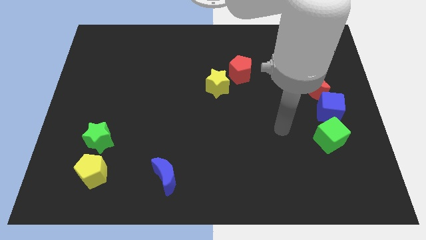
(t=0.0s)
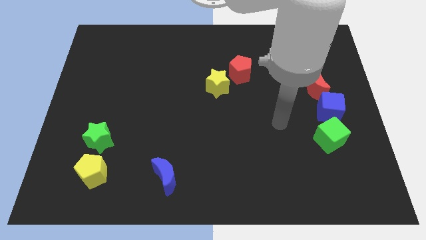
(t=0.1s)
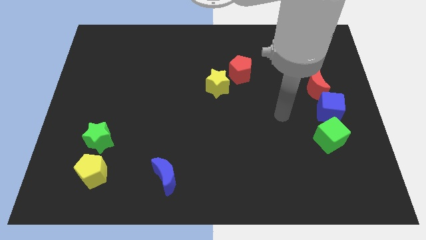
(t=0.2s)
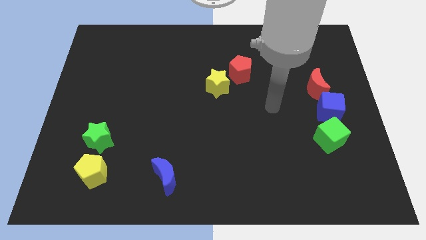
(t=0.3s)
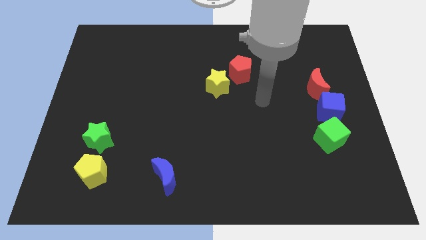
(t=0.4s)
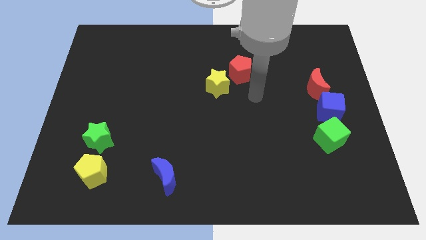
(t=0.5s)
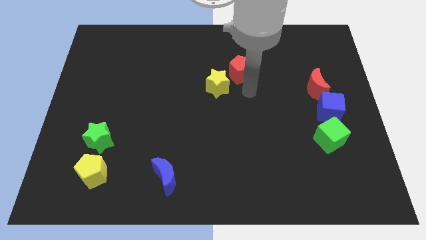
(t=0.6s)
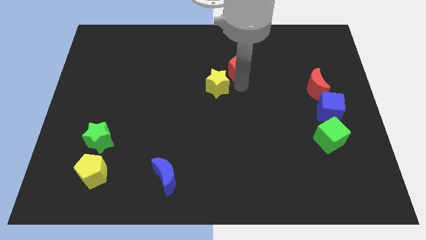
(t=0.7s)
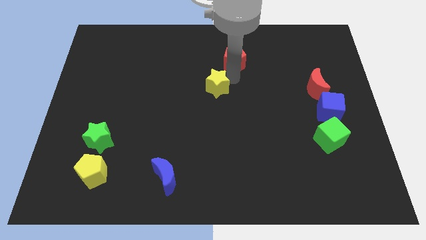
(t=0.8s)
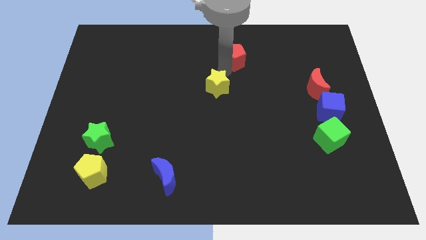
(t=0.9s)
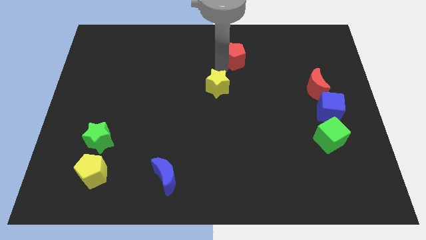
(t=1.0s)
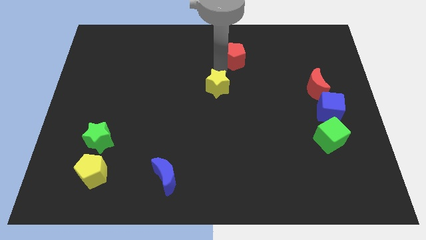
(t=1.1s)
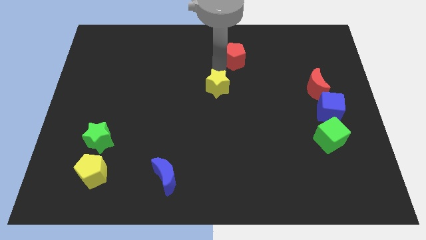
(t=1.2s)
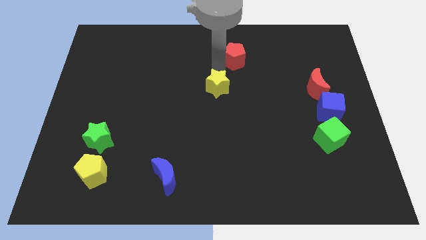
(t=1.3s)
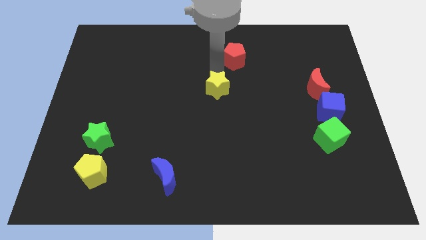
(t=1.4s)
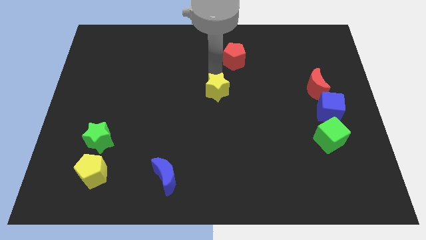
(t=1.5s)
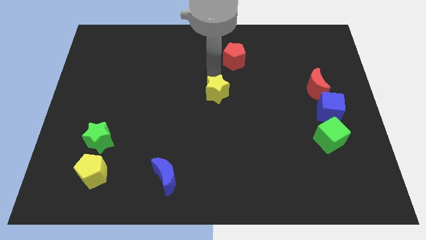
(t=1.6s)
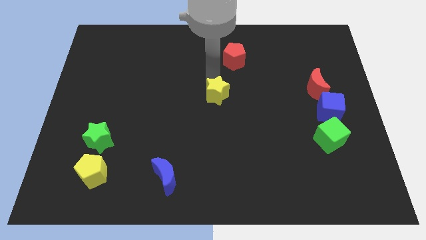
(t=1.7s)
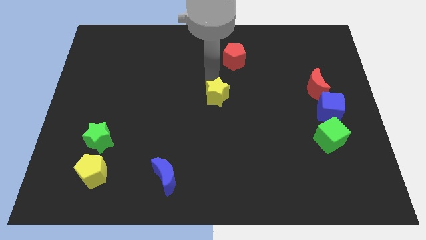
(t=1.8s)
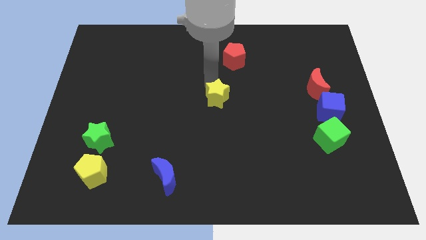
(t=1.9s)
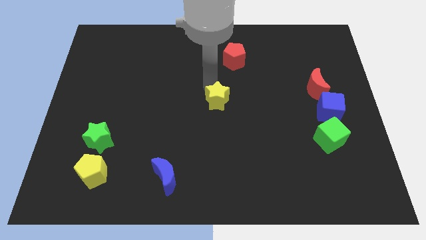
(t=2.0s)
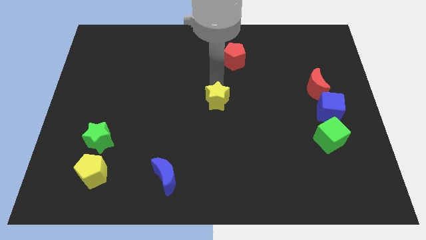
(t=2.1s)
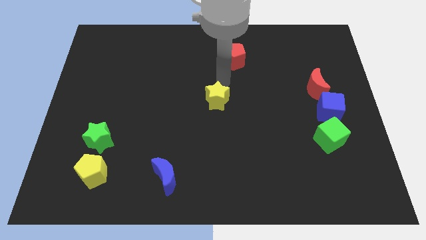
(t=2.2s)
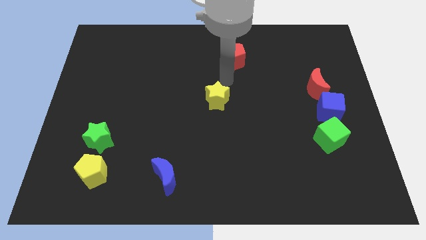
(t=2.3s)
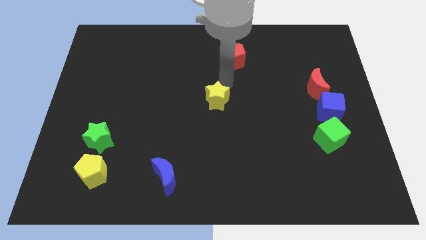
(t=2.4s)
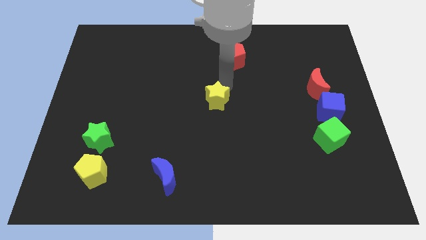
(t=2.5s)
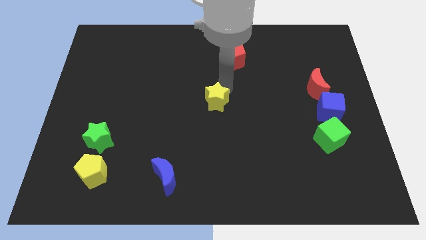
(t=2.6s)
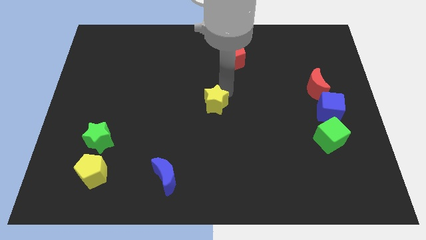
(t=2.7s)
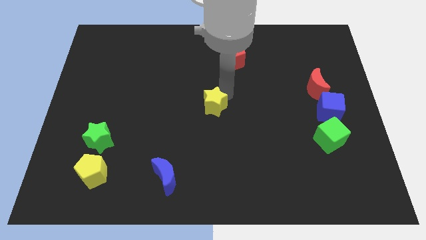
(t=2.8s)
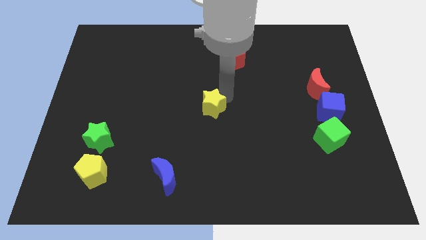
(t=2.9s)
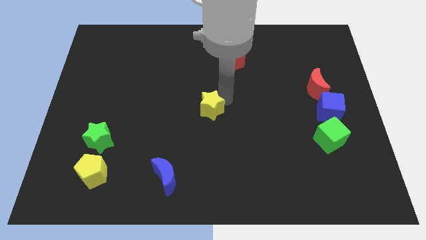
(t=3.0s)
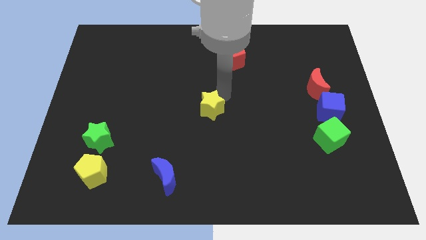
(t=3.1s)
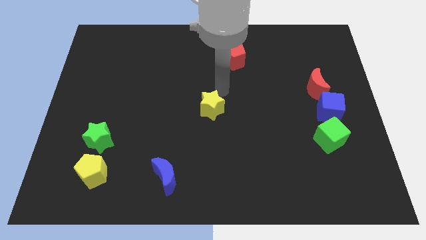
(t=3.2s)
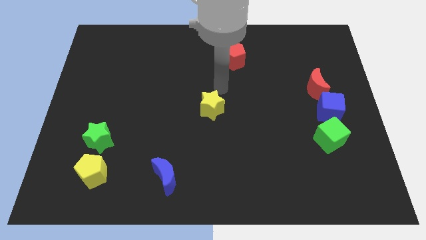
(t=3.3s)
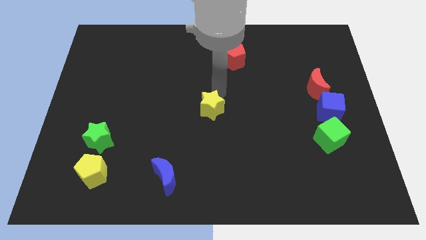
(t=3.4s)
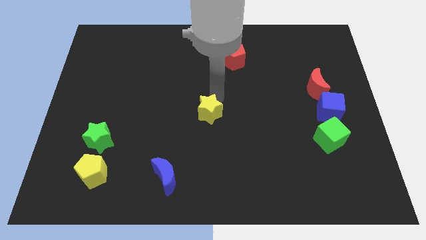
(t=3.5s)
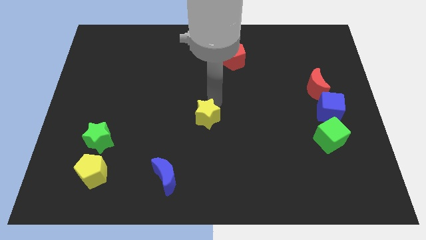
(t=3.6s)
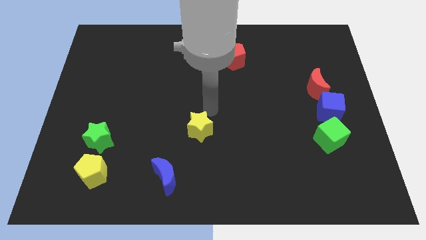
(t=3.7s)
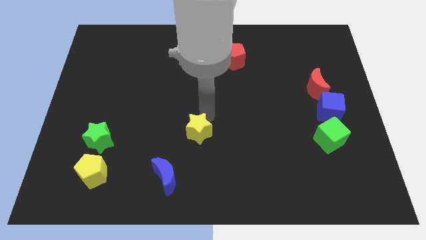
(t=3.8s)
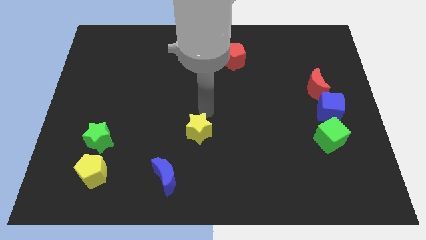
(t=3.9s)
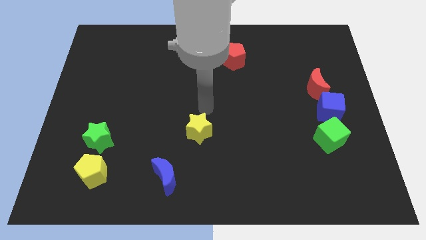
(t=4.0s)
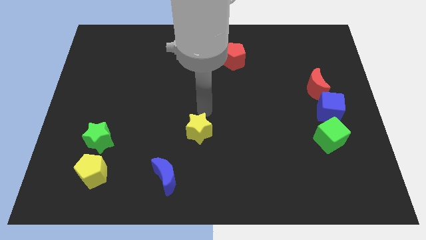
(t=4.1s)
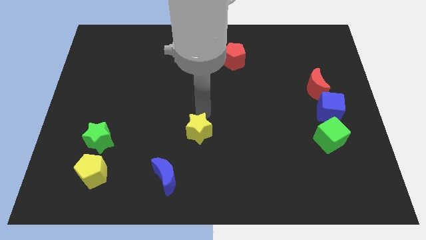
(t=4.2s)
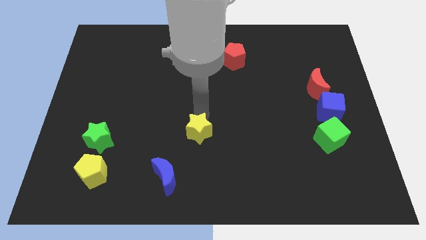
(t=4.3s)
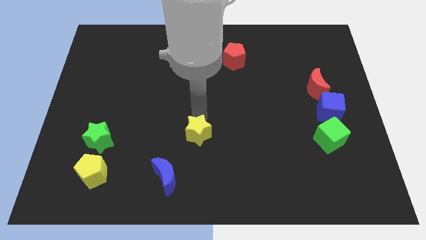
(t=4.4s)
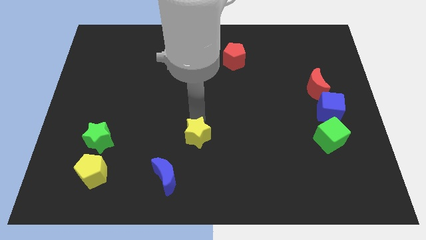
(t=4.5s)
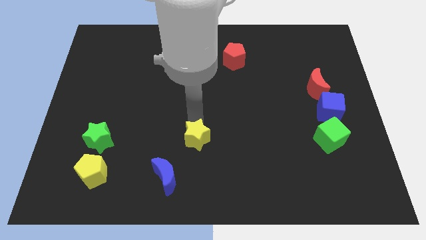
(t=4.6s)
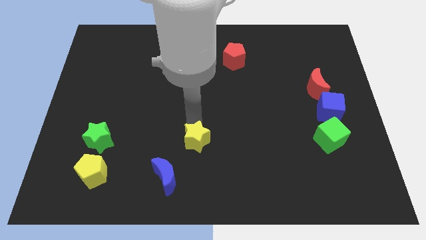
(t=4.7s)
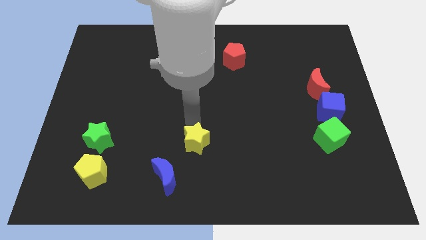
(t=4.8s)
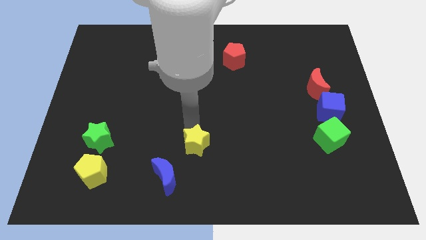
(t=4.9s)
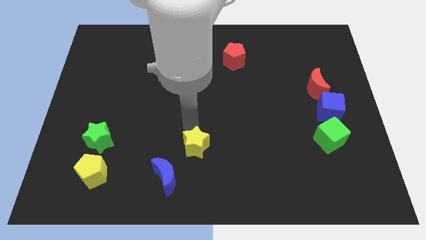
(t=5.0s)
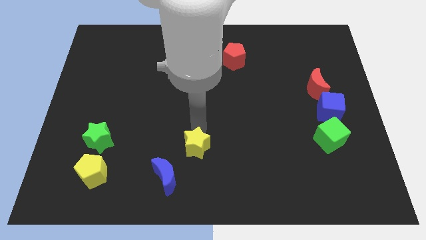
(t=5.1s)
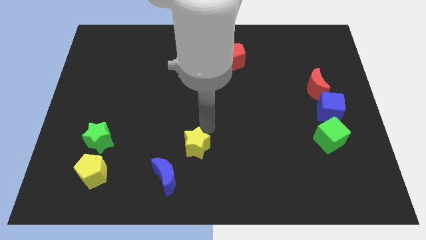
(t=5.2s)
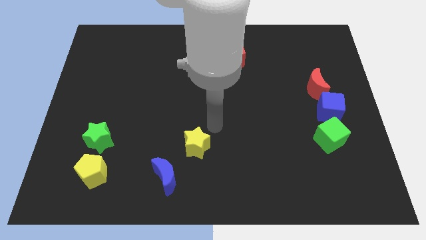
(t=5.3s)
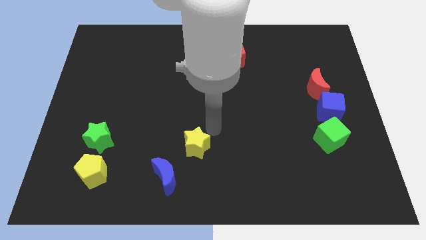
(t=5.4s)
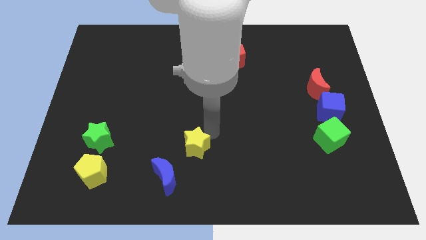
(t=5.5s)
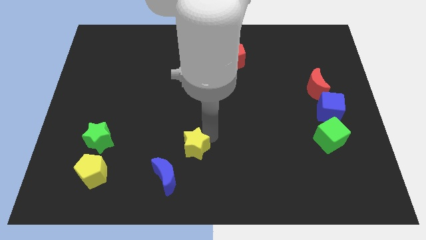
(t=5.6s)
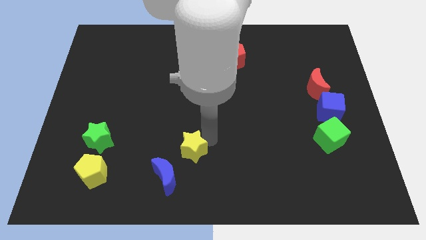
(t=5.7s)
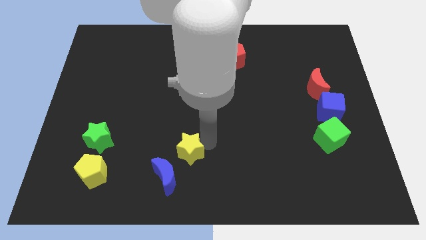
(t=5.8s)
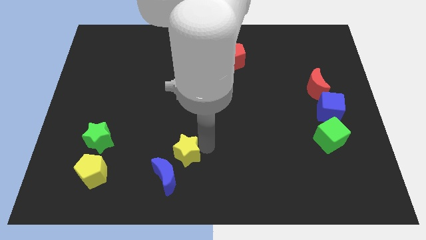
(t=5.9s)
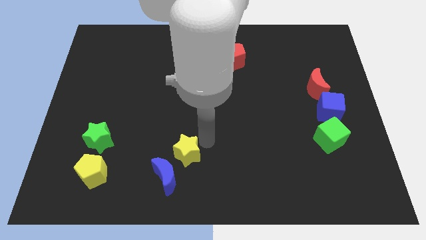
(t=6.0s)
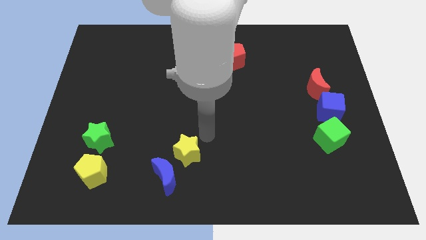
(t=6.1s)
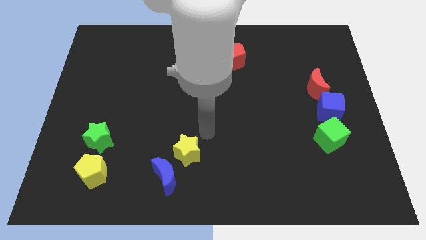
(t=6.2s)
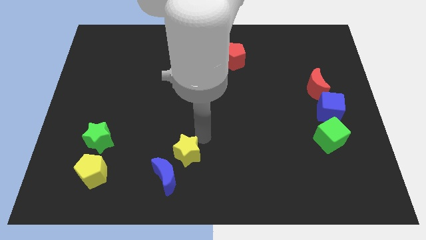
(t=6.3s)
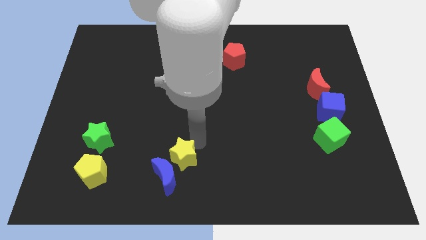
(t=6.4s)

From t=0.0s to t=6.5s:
move the yellow star close to the blue moon
